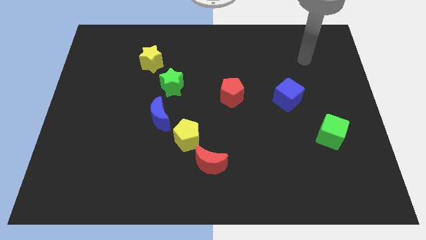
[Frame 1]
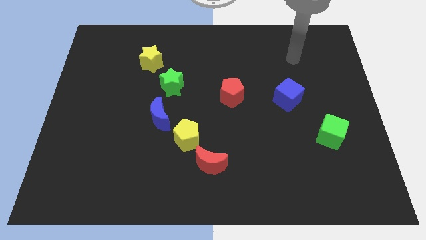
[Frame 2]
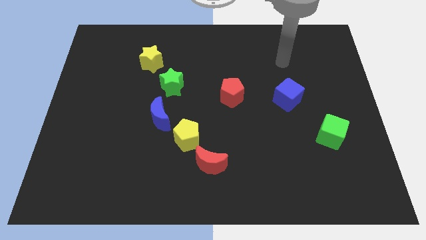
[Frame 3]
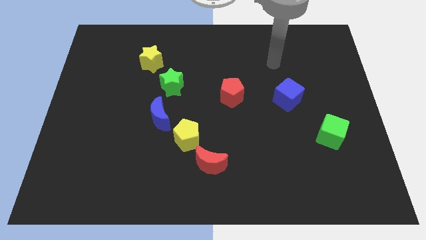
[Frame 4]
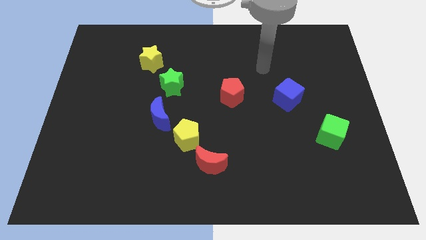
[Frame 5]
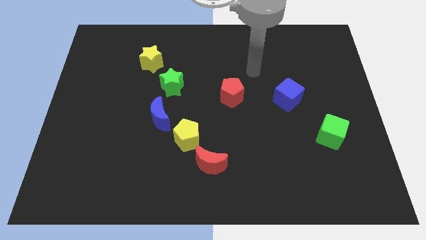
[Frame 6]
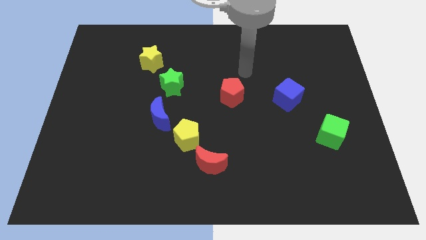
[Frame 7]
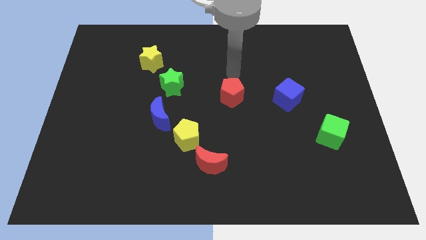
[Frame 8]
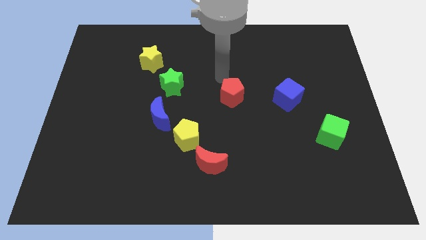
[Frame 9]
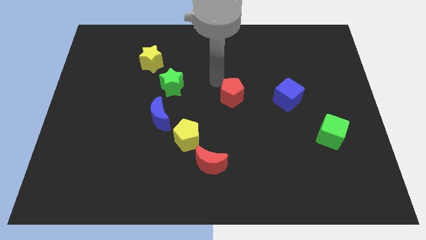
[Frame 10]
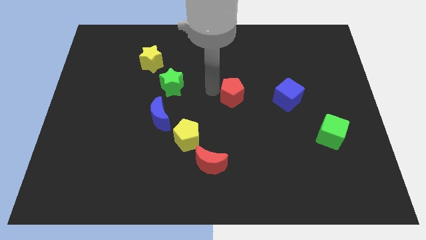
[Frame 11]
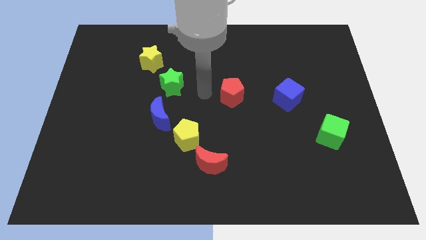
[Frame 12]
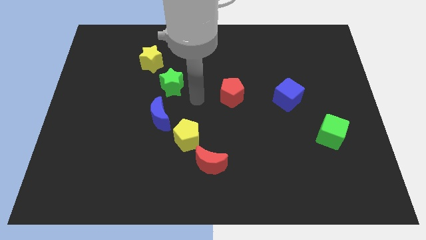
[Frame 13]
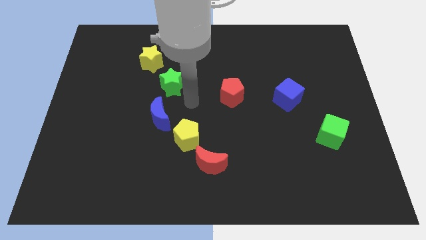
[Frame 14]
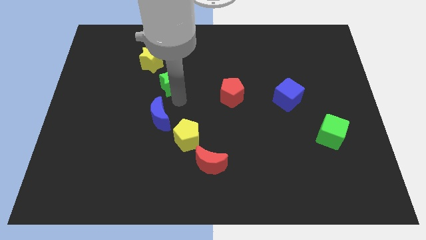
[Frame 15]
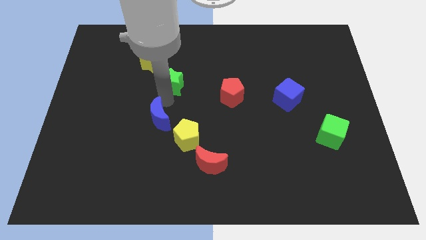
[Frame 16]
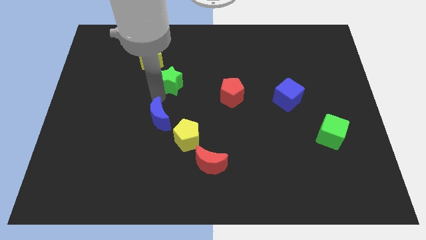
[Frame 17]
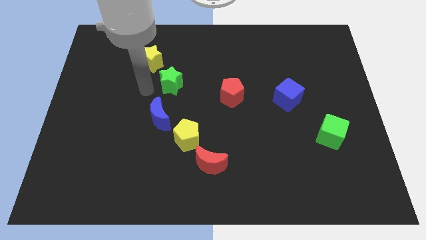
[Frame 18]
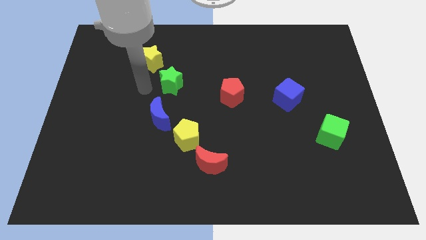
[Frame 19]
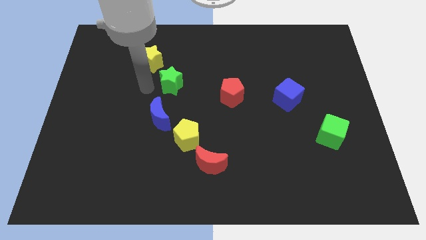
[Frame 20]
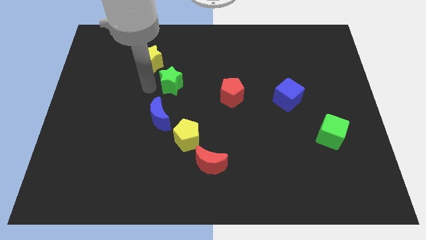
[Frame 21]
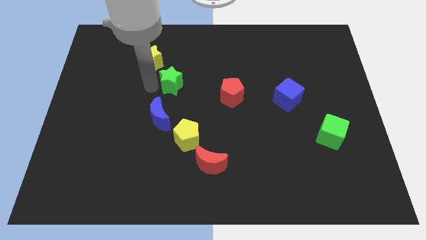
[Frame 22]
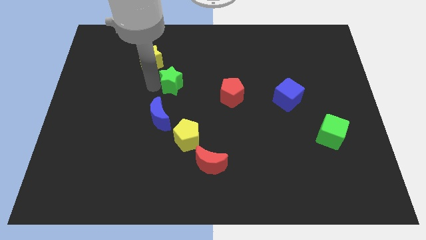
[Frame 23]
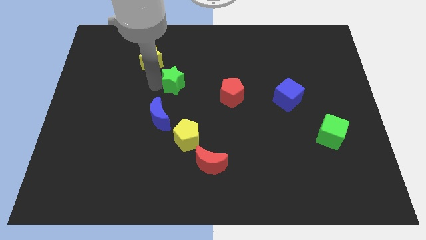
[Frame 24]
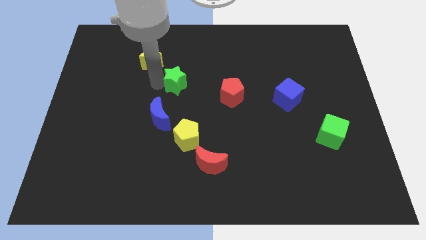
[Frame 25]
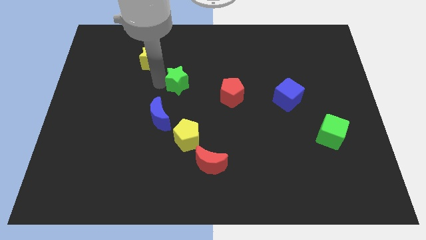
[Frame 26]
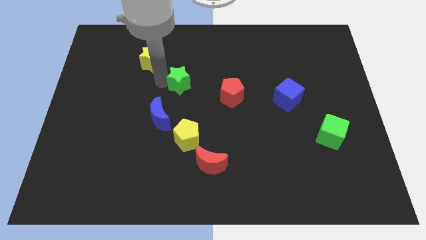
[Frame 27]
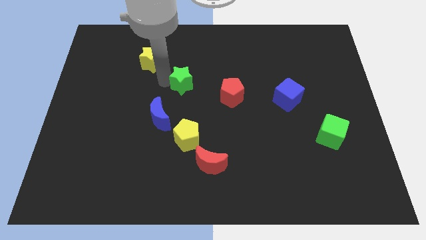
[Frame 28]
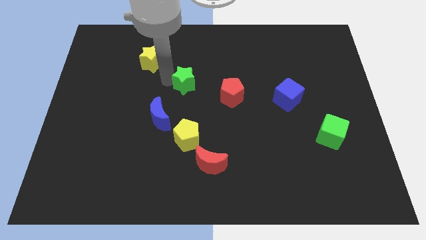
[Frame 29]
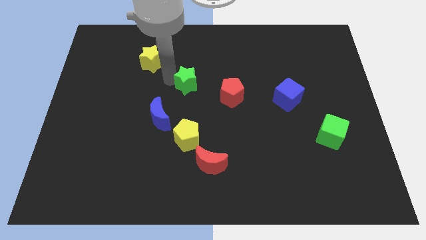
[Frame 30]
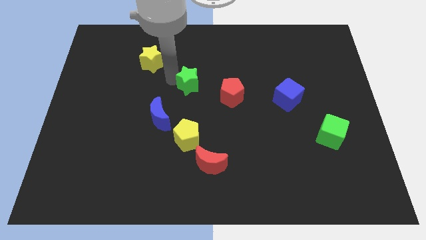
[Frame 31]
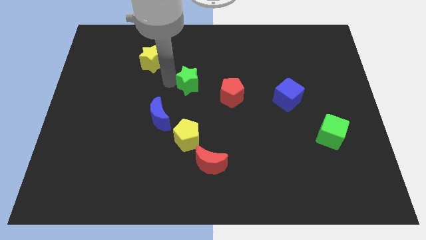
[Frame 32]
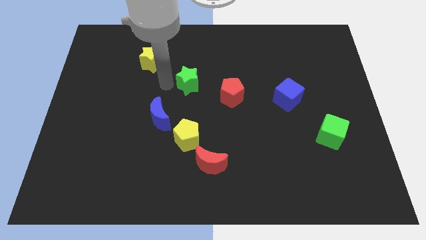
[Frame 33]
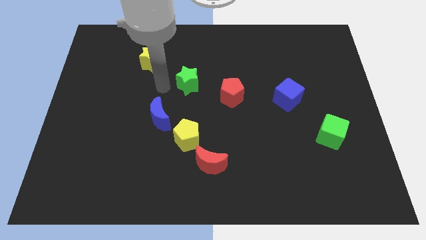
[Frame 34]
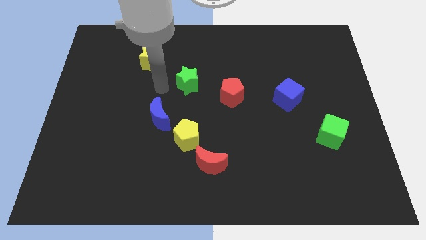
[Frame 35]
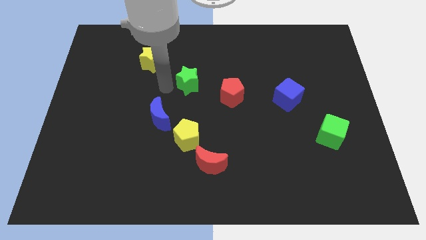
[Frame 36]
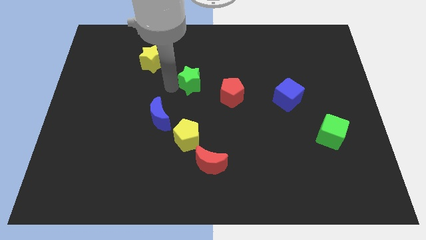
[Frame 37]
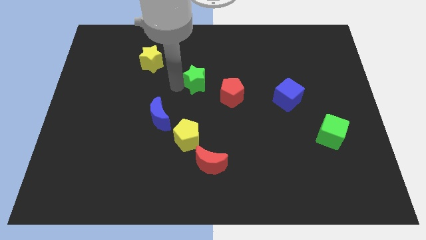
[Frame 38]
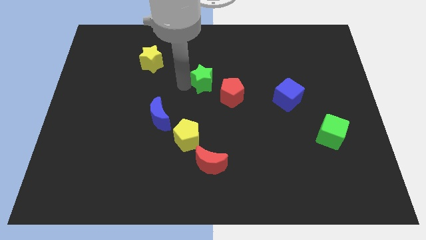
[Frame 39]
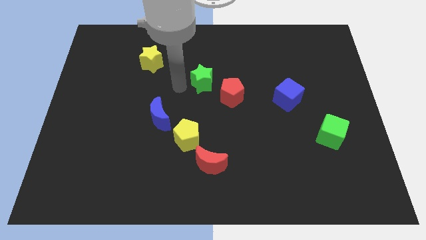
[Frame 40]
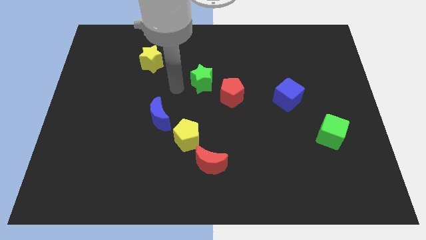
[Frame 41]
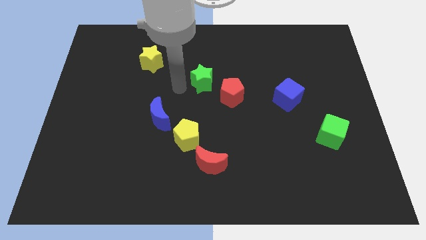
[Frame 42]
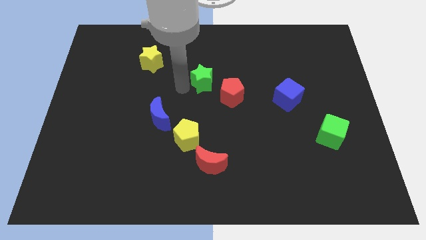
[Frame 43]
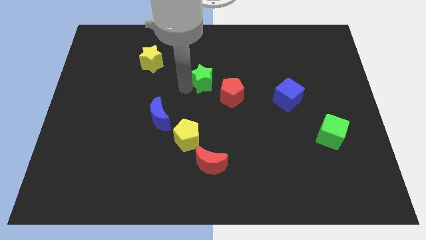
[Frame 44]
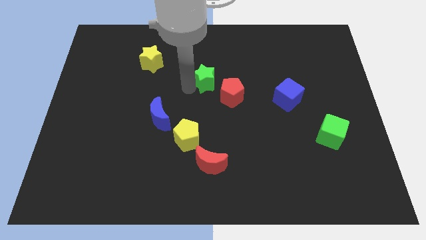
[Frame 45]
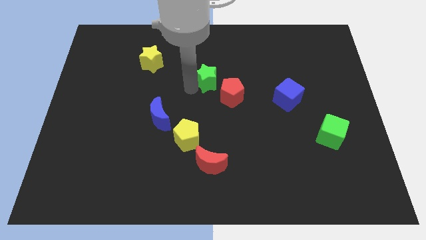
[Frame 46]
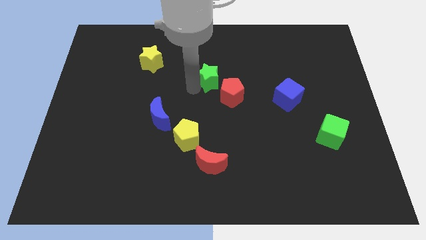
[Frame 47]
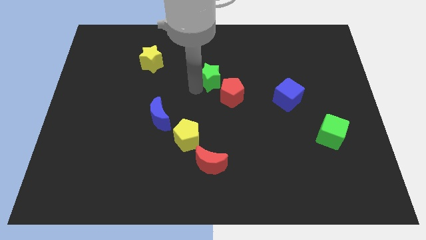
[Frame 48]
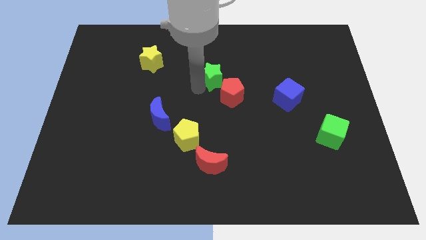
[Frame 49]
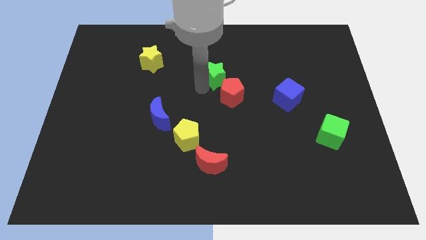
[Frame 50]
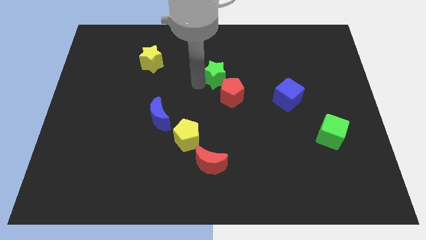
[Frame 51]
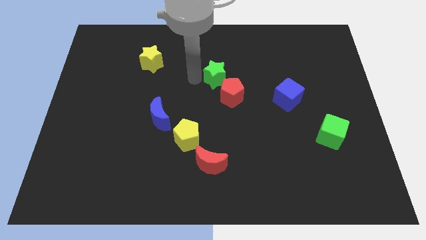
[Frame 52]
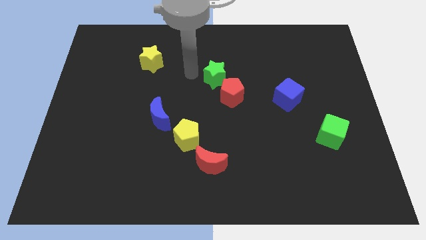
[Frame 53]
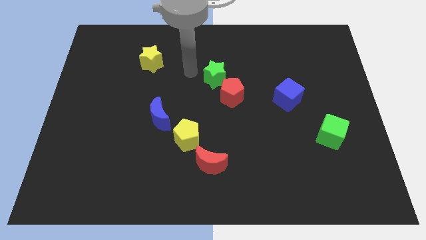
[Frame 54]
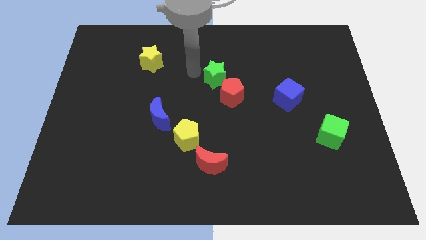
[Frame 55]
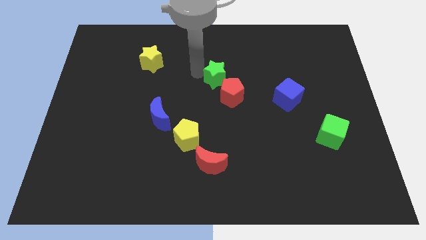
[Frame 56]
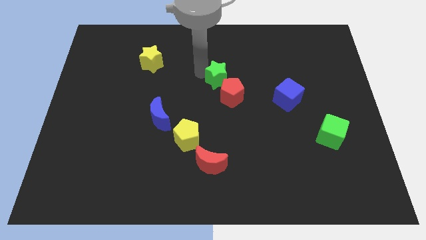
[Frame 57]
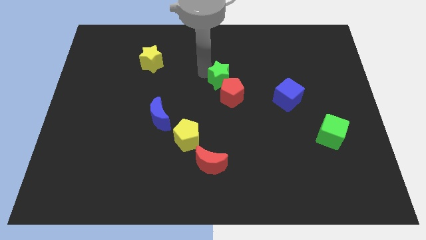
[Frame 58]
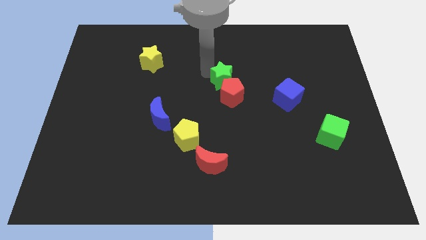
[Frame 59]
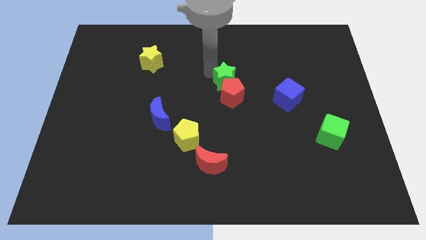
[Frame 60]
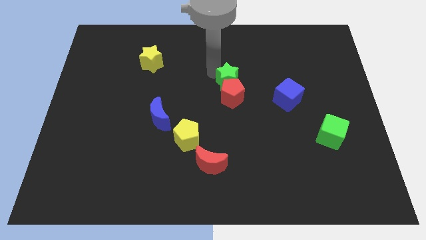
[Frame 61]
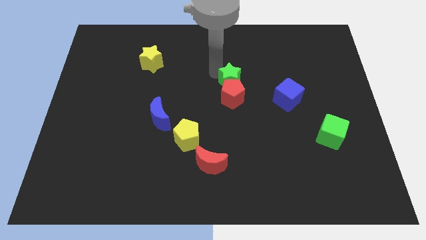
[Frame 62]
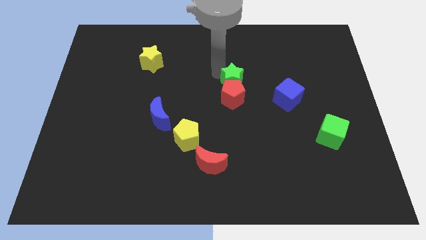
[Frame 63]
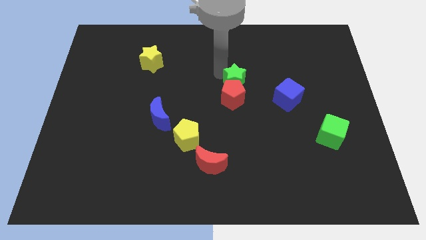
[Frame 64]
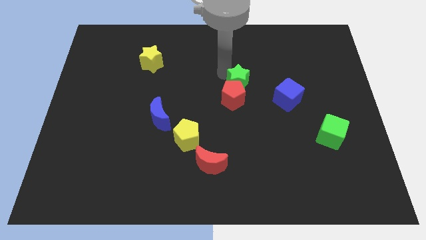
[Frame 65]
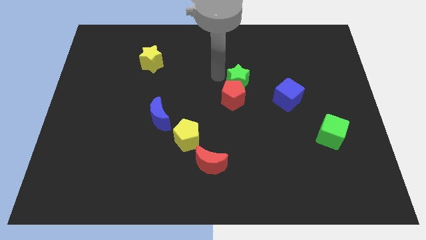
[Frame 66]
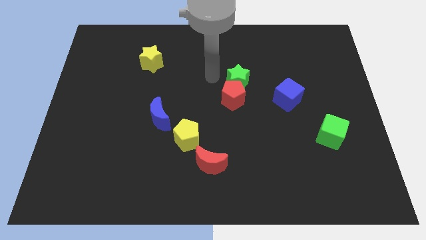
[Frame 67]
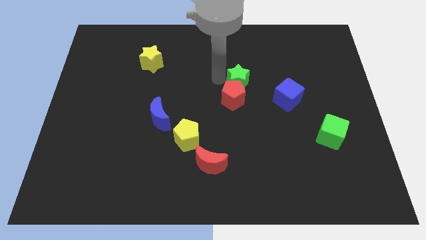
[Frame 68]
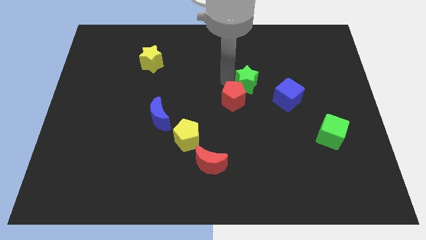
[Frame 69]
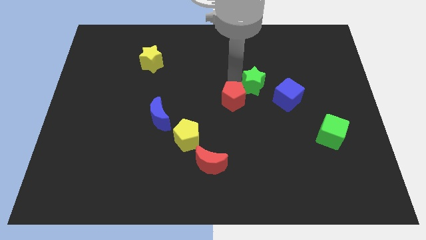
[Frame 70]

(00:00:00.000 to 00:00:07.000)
slide the green star right

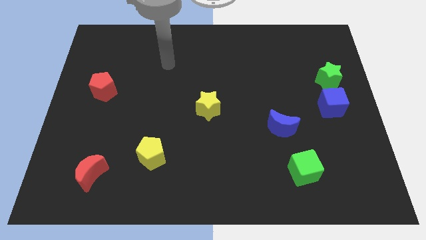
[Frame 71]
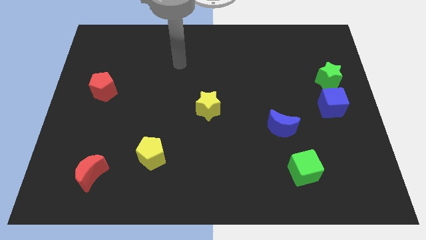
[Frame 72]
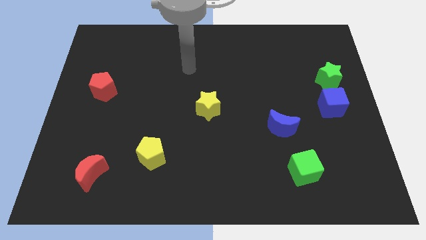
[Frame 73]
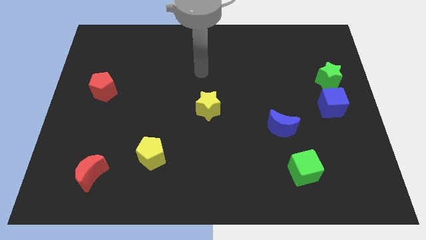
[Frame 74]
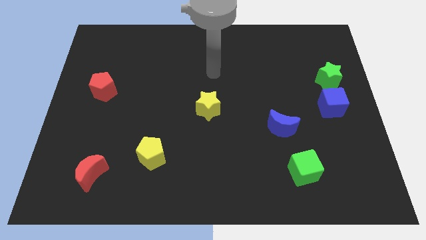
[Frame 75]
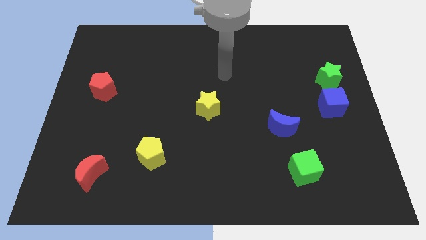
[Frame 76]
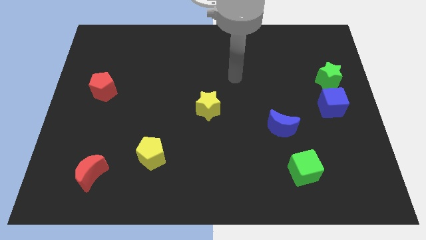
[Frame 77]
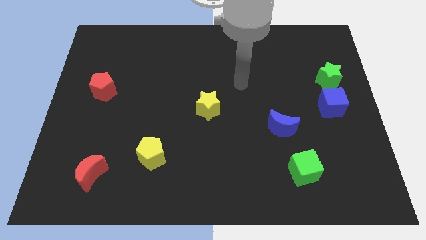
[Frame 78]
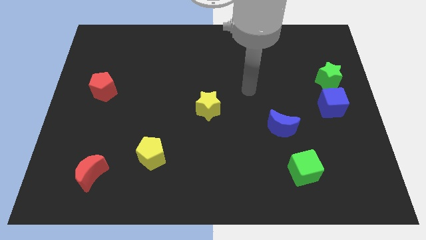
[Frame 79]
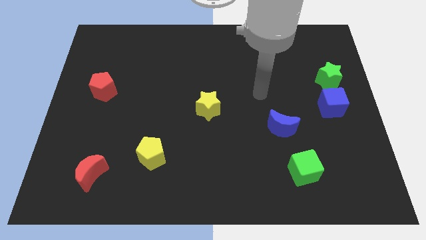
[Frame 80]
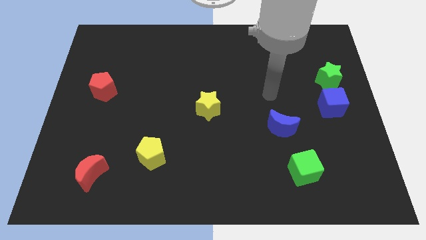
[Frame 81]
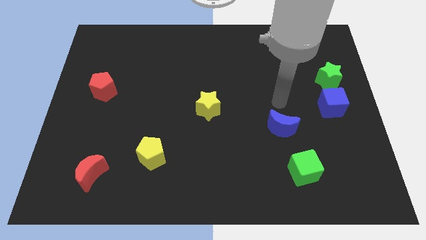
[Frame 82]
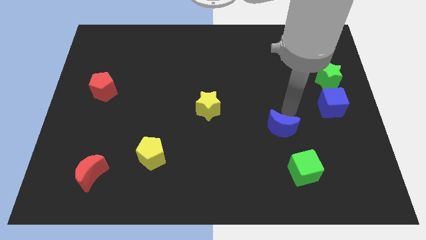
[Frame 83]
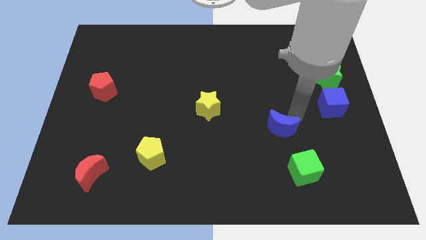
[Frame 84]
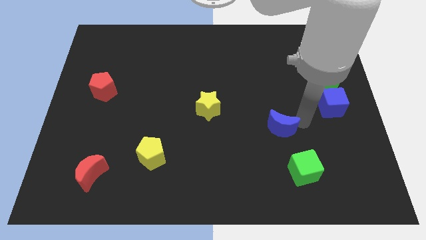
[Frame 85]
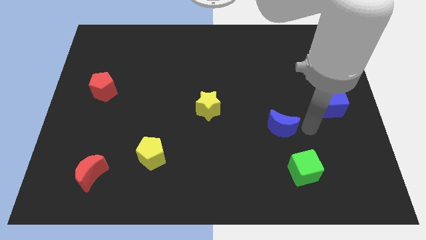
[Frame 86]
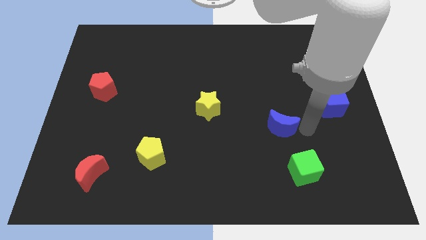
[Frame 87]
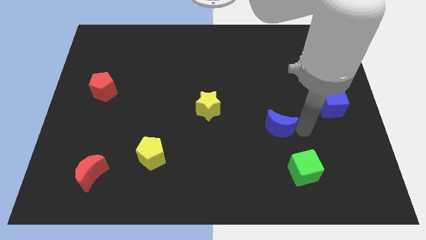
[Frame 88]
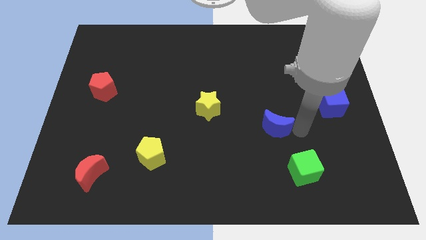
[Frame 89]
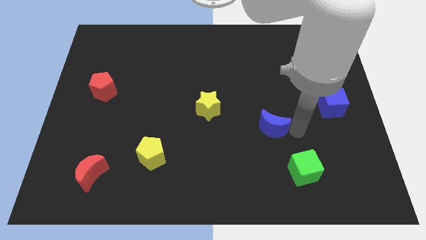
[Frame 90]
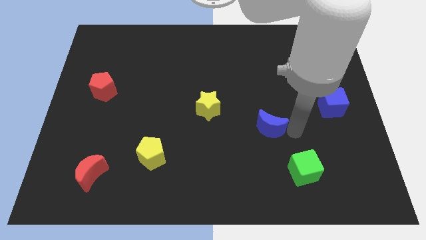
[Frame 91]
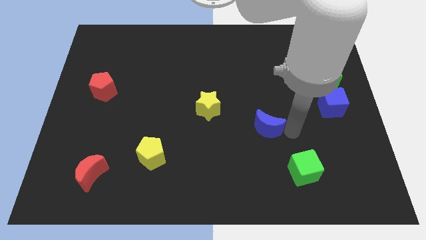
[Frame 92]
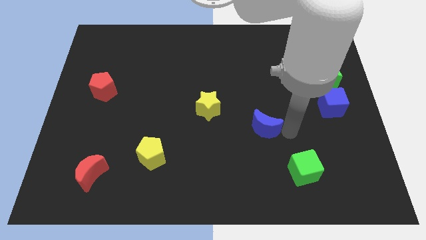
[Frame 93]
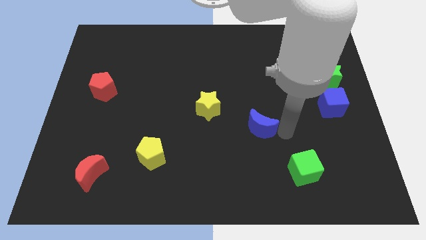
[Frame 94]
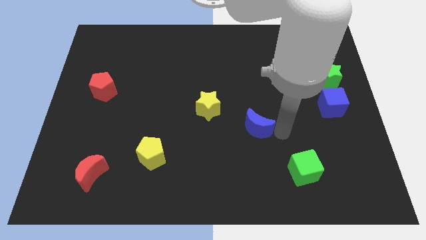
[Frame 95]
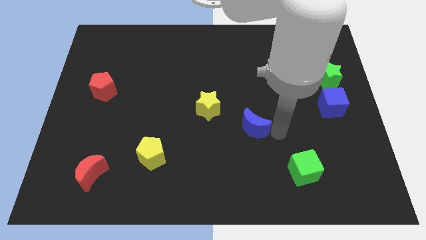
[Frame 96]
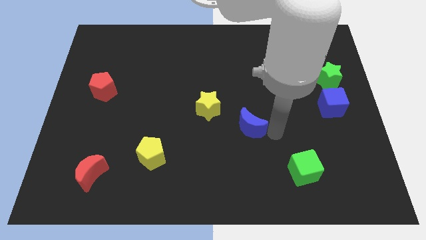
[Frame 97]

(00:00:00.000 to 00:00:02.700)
slide the blue moon to the left a little bit
